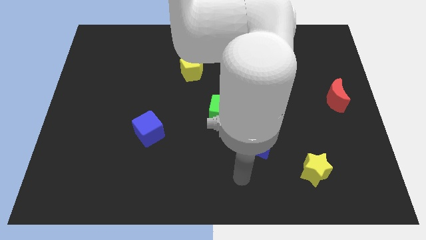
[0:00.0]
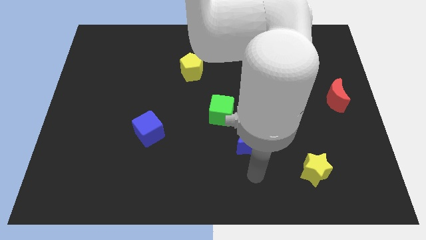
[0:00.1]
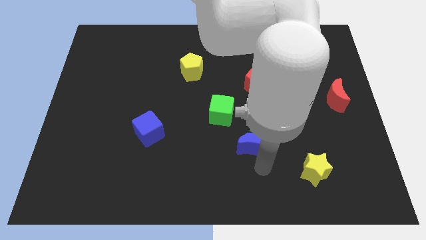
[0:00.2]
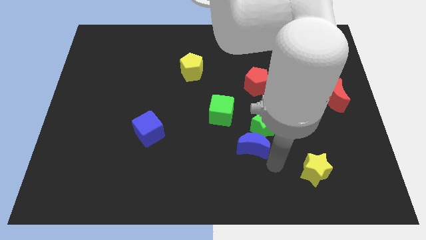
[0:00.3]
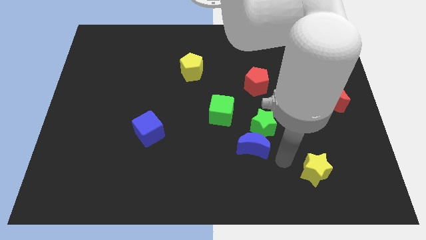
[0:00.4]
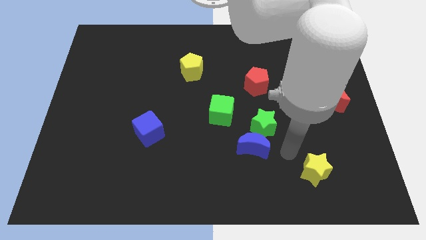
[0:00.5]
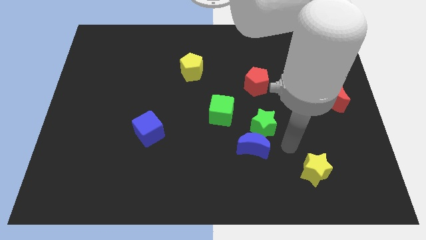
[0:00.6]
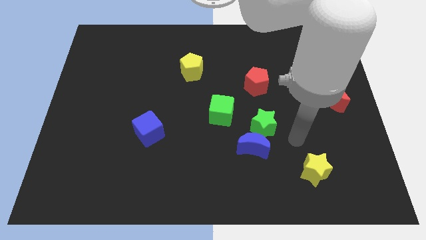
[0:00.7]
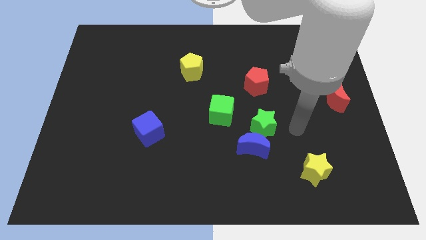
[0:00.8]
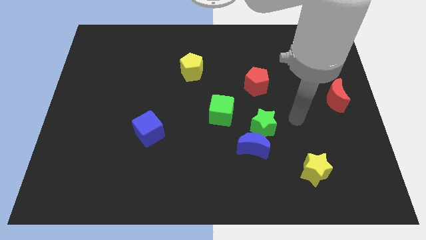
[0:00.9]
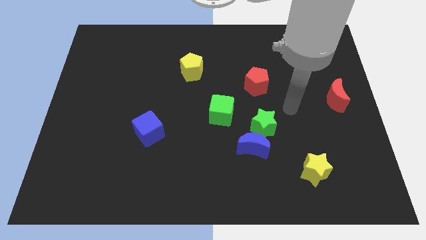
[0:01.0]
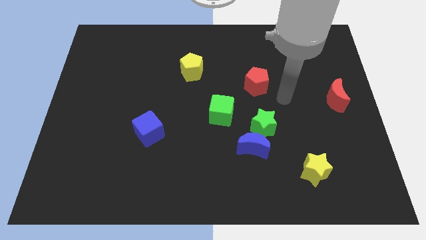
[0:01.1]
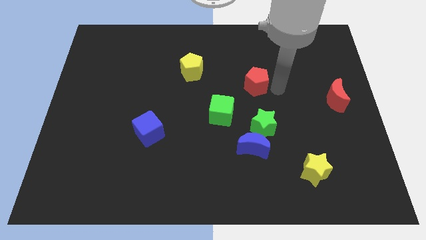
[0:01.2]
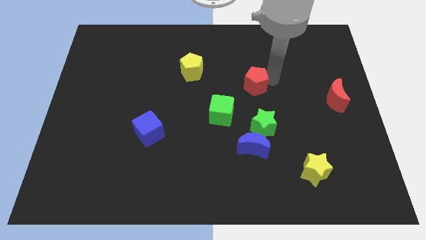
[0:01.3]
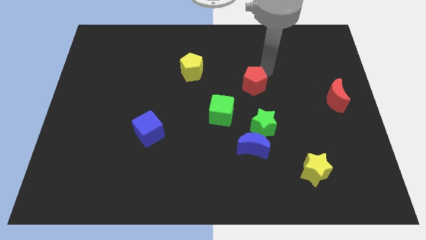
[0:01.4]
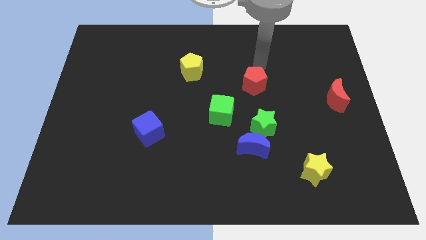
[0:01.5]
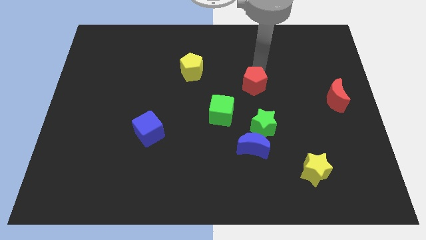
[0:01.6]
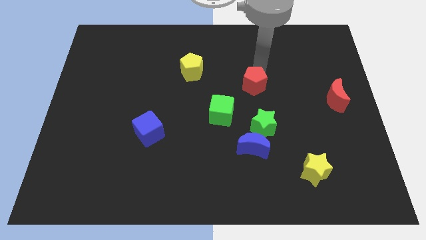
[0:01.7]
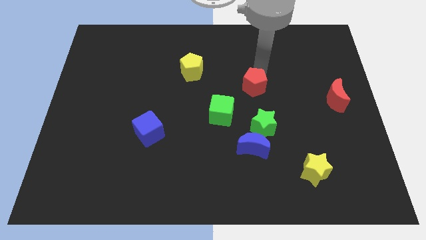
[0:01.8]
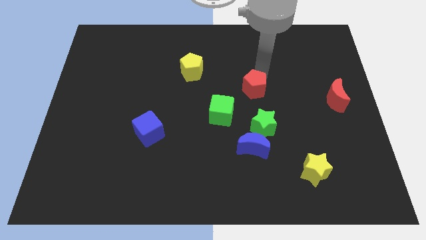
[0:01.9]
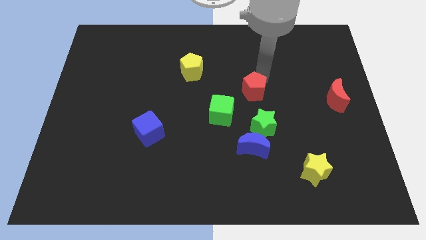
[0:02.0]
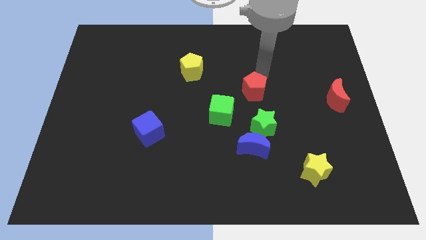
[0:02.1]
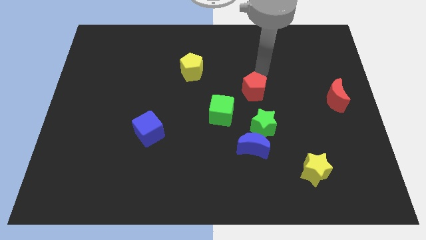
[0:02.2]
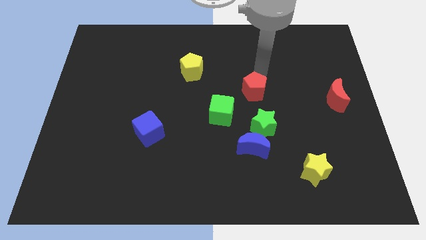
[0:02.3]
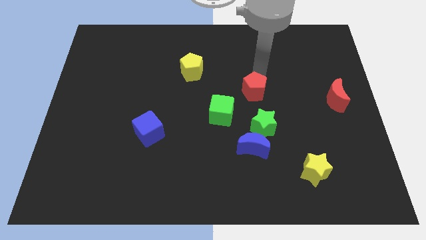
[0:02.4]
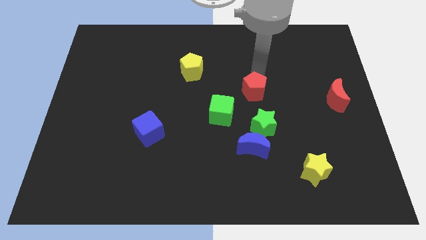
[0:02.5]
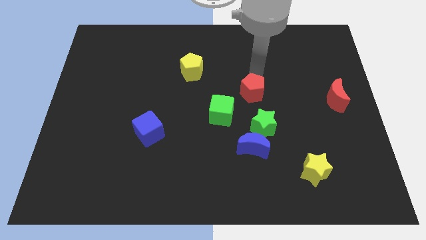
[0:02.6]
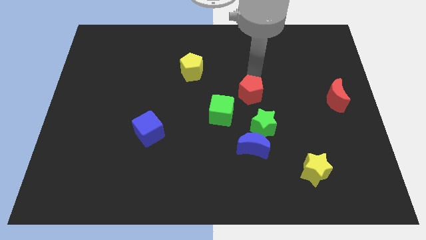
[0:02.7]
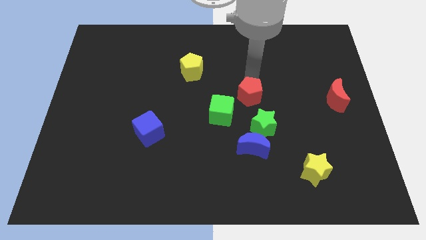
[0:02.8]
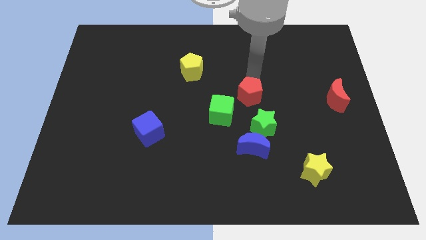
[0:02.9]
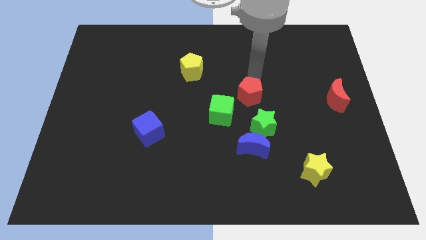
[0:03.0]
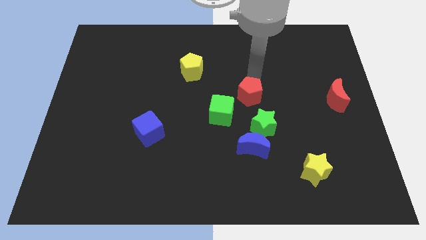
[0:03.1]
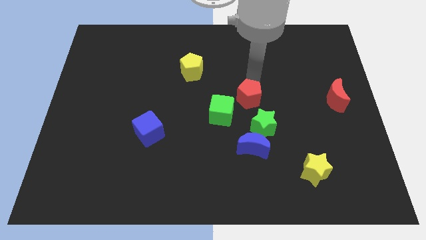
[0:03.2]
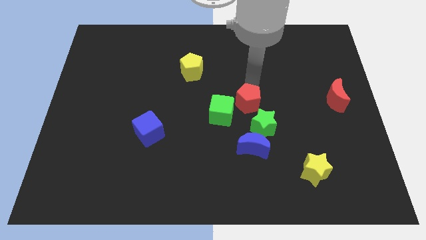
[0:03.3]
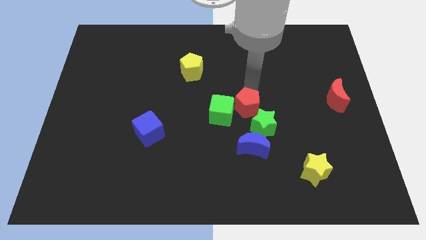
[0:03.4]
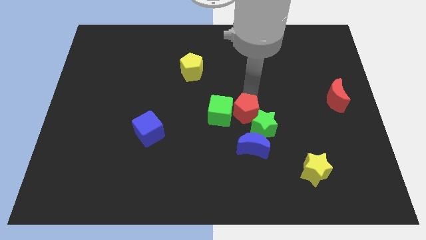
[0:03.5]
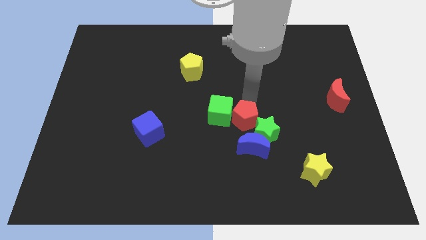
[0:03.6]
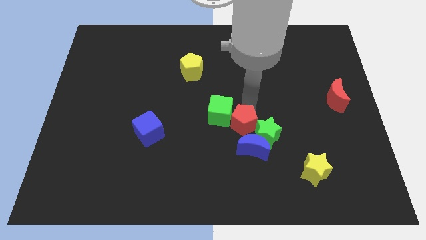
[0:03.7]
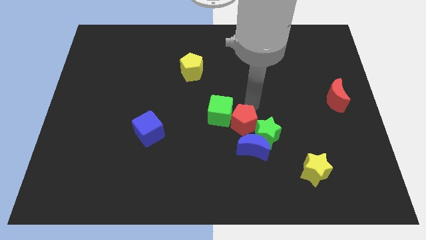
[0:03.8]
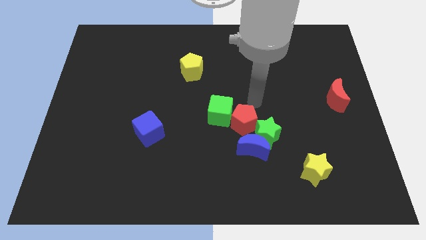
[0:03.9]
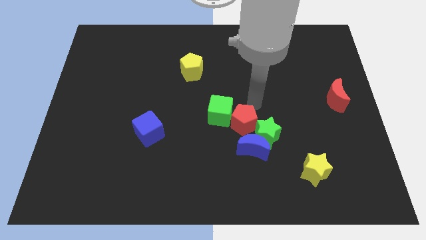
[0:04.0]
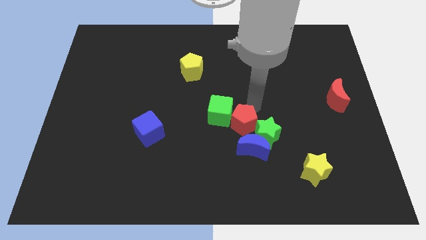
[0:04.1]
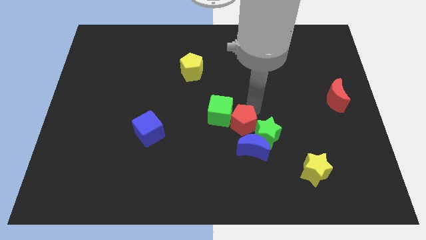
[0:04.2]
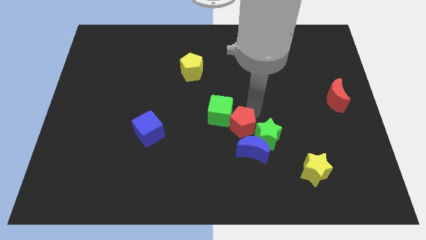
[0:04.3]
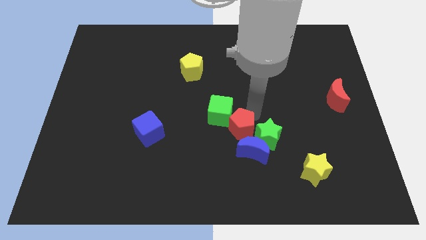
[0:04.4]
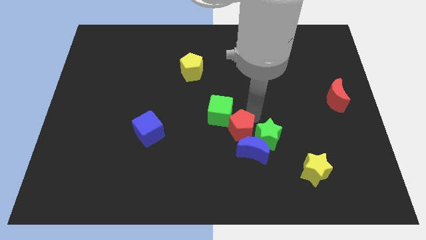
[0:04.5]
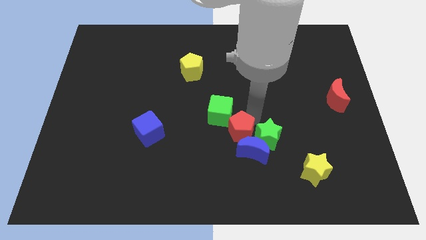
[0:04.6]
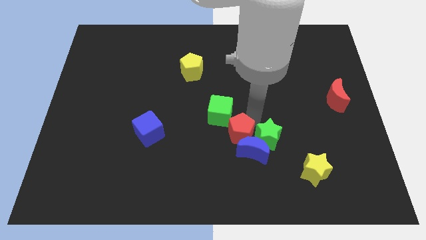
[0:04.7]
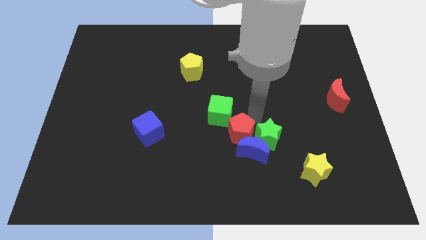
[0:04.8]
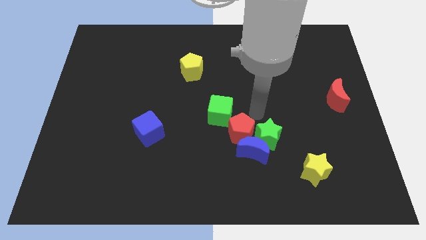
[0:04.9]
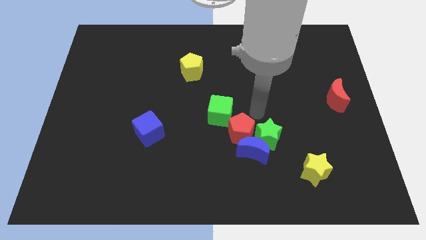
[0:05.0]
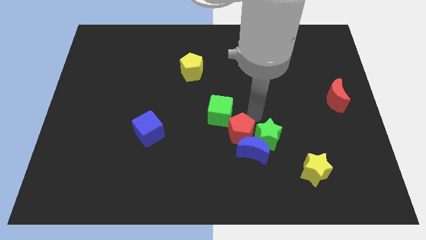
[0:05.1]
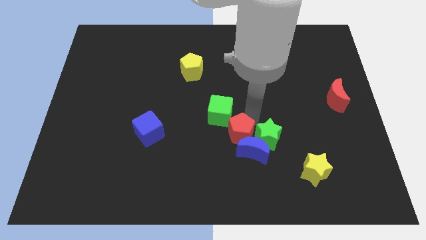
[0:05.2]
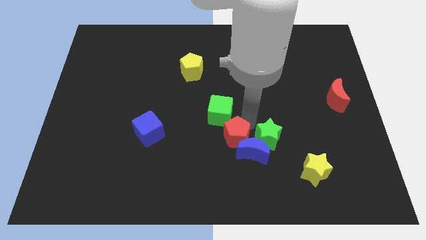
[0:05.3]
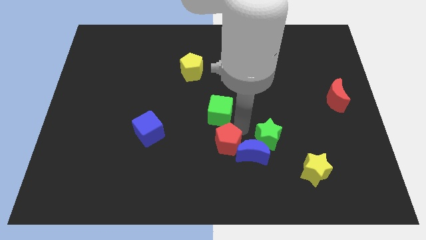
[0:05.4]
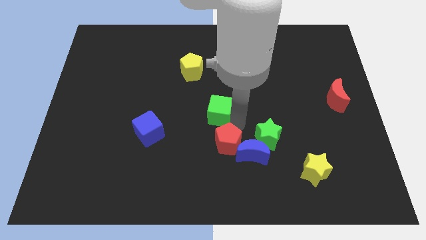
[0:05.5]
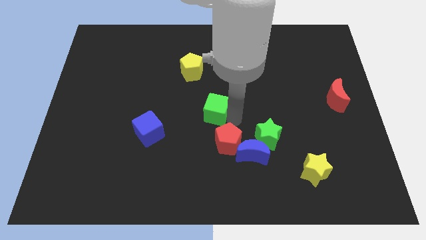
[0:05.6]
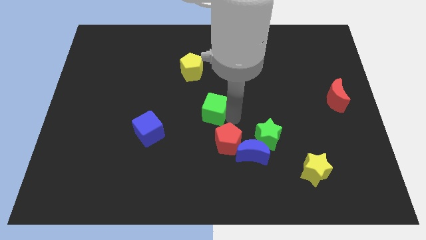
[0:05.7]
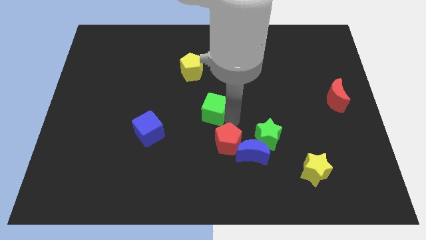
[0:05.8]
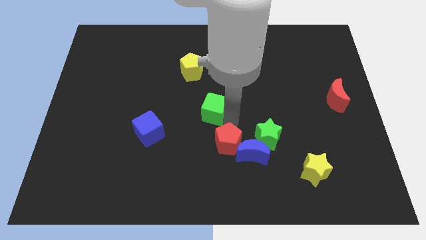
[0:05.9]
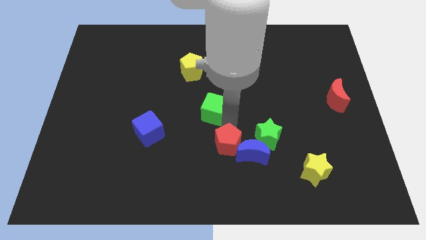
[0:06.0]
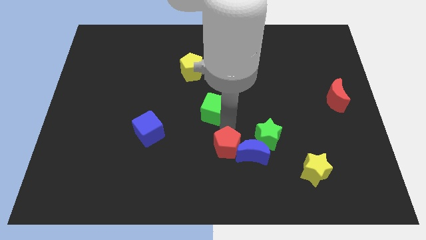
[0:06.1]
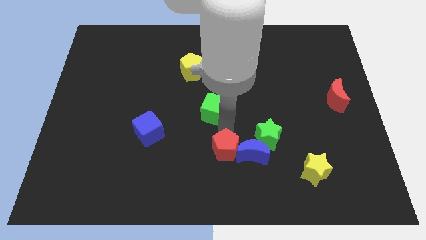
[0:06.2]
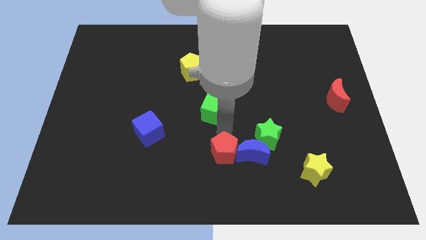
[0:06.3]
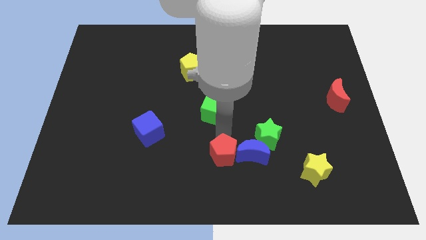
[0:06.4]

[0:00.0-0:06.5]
push the red pentagon to the bottom

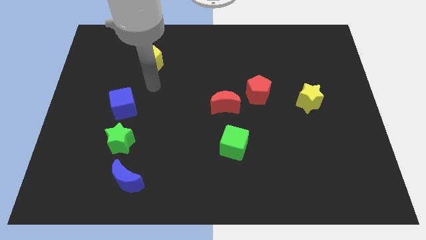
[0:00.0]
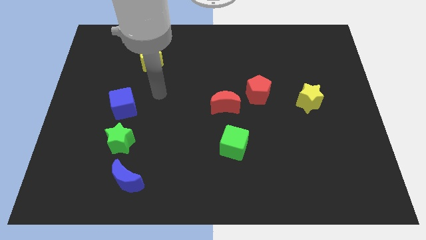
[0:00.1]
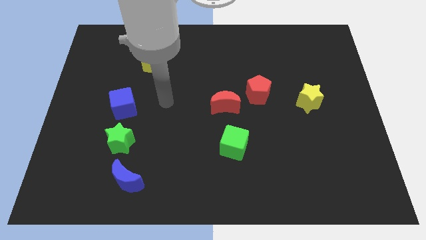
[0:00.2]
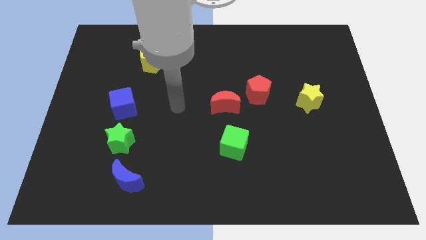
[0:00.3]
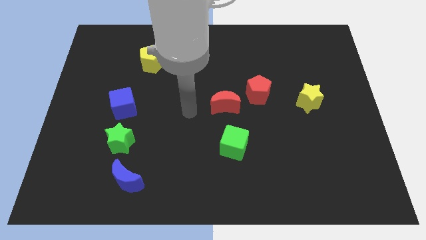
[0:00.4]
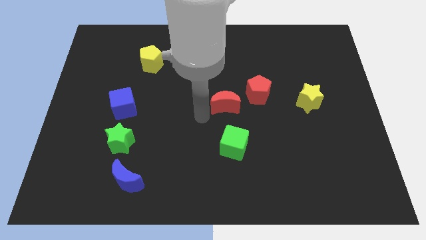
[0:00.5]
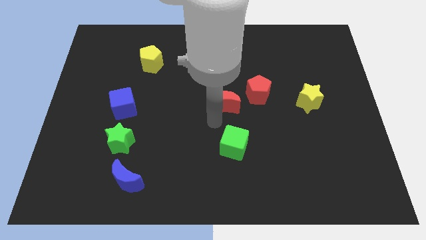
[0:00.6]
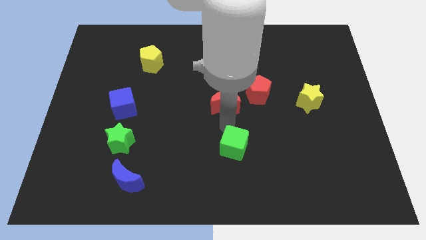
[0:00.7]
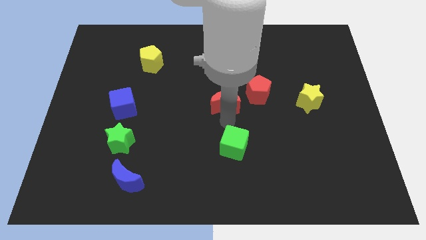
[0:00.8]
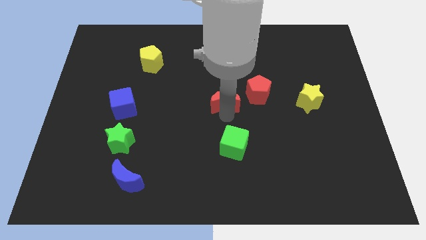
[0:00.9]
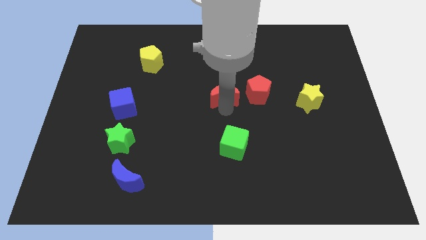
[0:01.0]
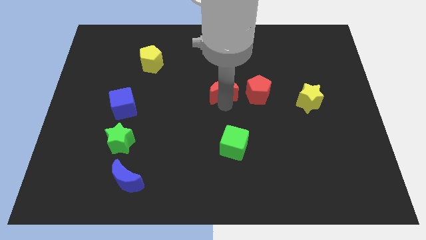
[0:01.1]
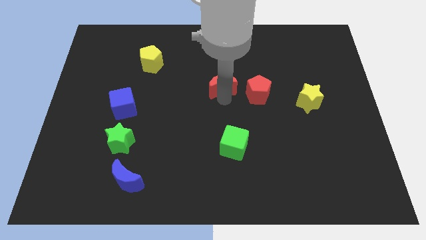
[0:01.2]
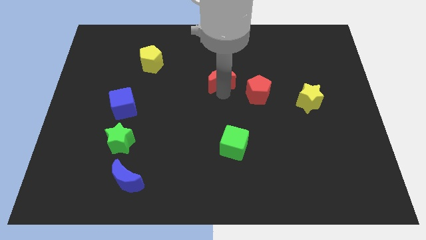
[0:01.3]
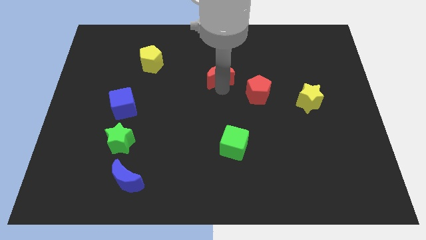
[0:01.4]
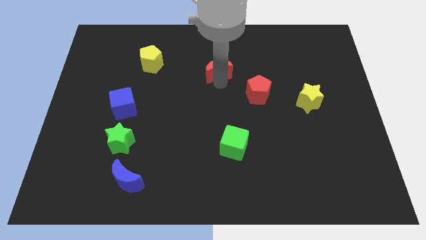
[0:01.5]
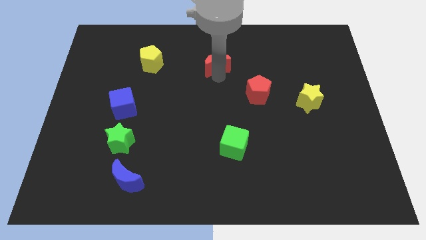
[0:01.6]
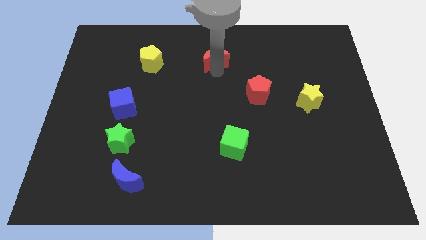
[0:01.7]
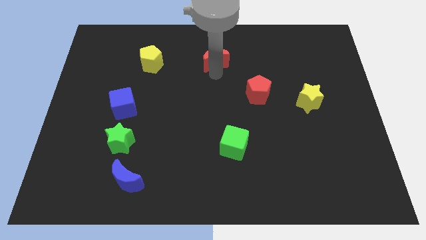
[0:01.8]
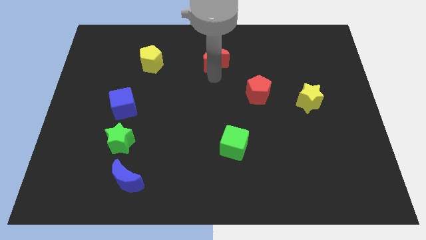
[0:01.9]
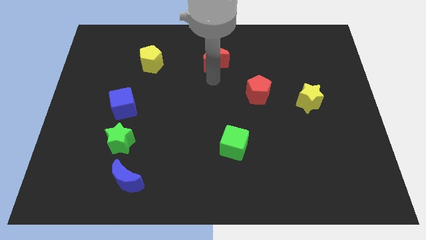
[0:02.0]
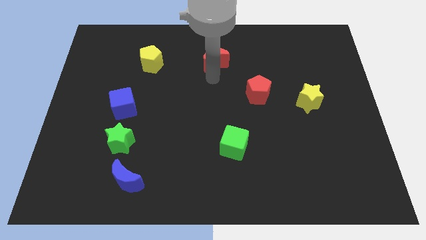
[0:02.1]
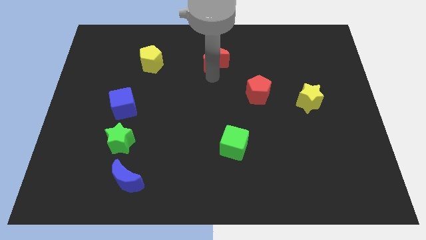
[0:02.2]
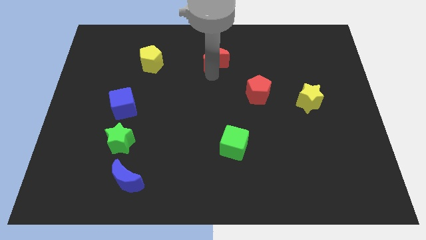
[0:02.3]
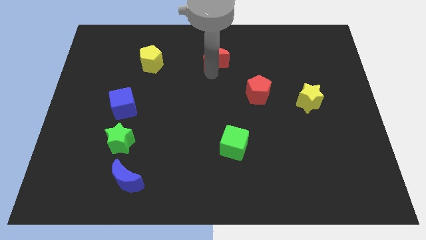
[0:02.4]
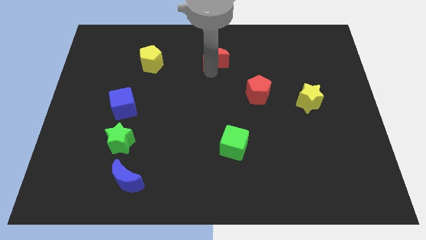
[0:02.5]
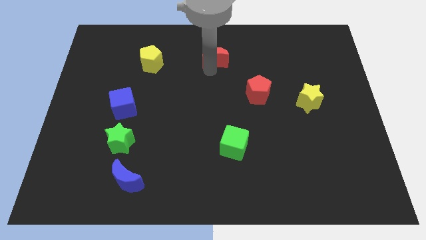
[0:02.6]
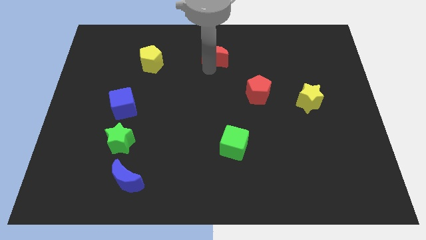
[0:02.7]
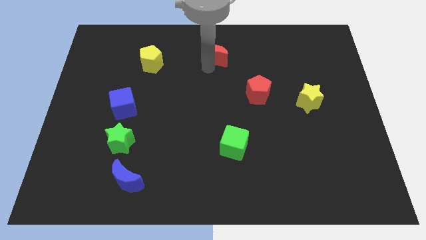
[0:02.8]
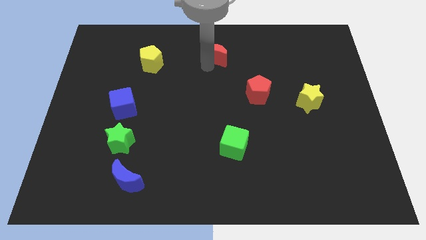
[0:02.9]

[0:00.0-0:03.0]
slide the red moon to the top
